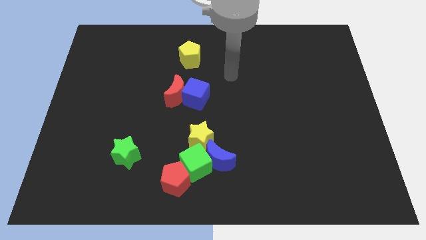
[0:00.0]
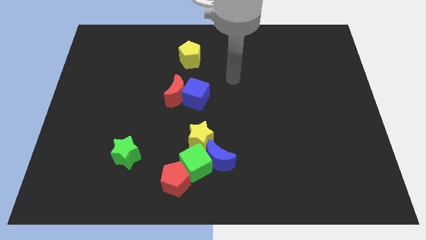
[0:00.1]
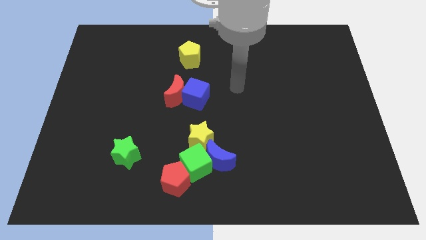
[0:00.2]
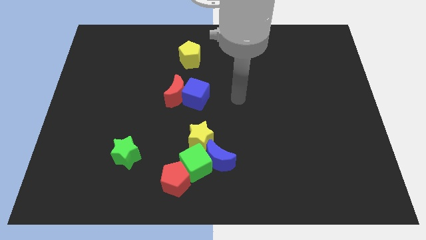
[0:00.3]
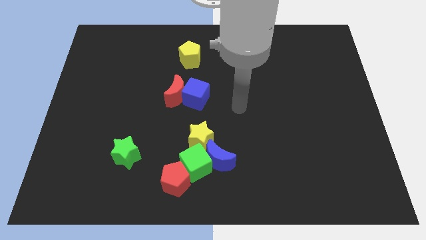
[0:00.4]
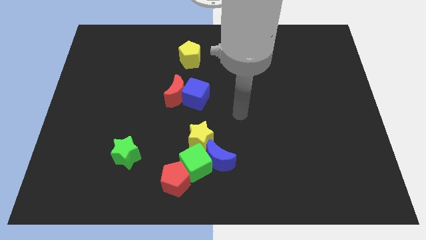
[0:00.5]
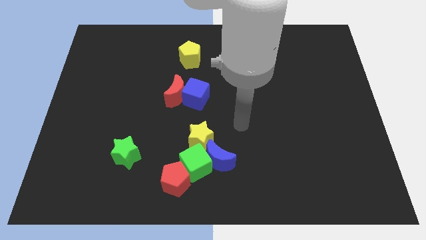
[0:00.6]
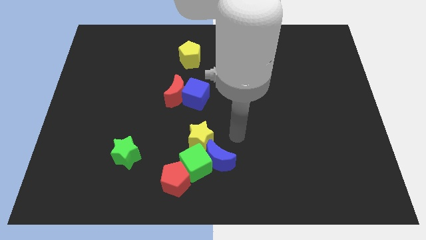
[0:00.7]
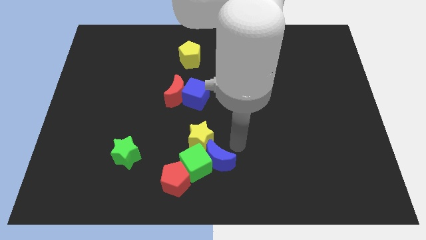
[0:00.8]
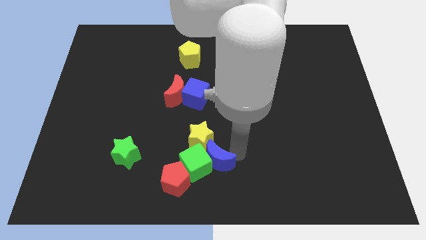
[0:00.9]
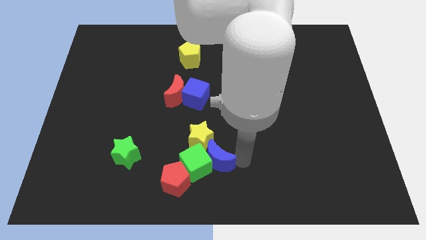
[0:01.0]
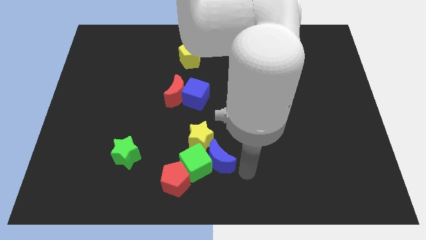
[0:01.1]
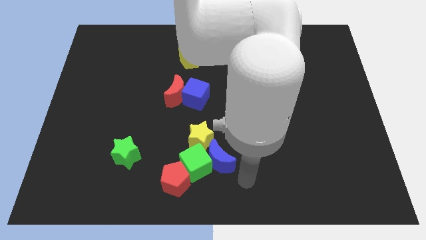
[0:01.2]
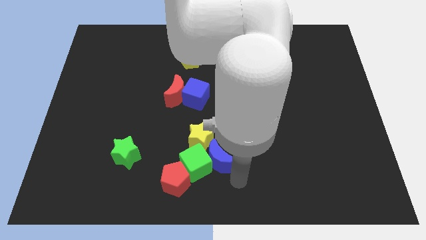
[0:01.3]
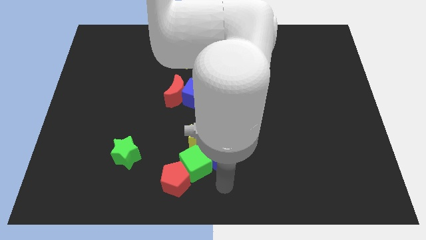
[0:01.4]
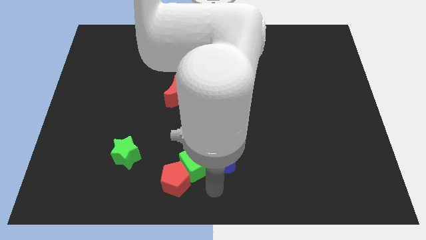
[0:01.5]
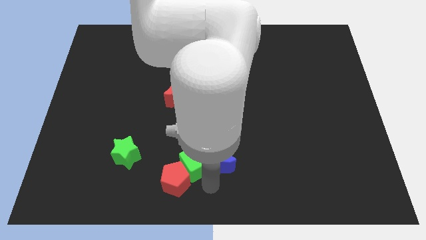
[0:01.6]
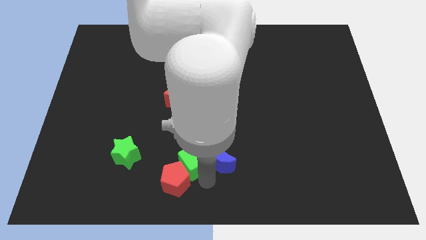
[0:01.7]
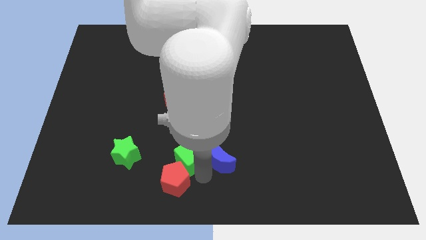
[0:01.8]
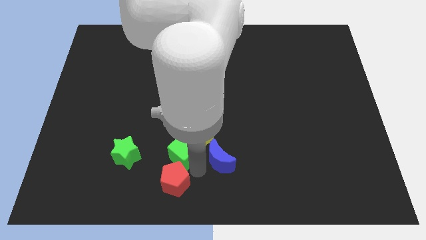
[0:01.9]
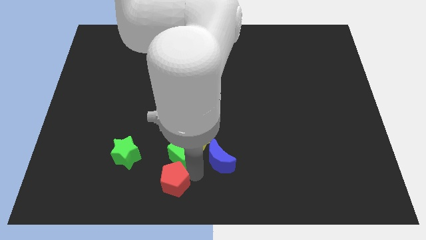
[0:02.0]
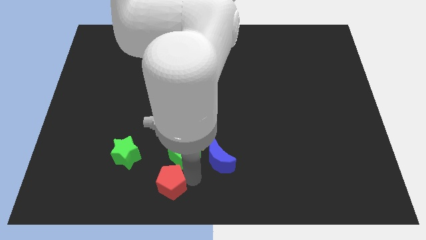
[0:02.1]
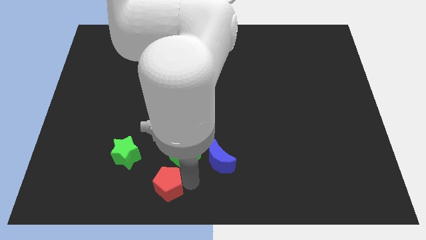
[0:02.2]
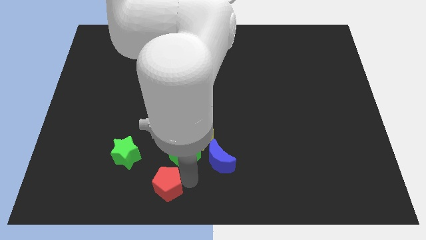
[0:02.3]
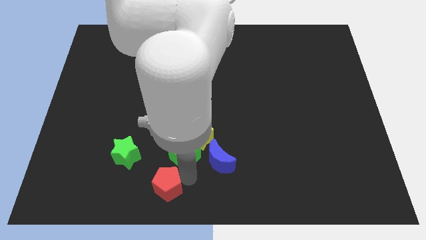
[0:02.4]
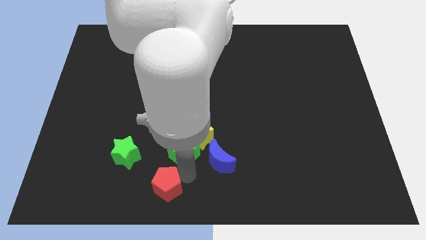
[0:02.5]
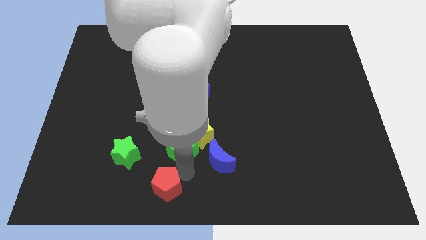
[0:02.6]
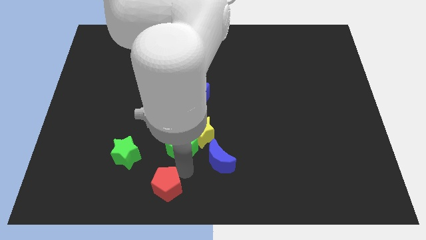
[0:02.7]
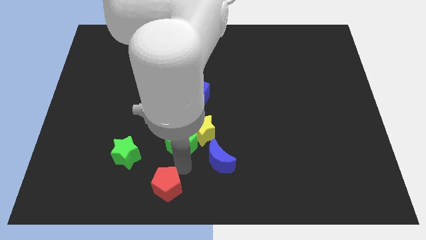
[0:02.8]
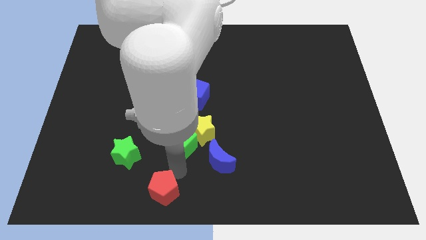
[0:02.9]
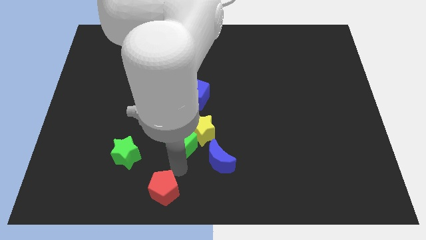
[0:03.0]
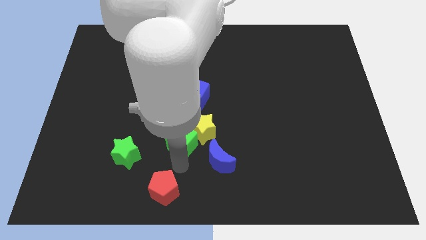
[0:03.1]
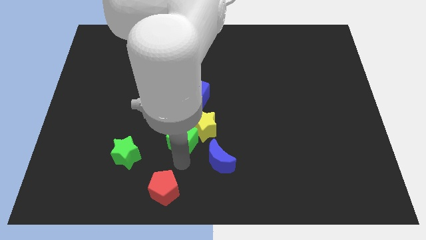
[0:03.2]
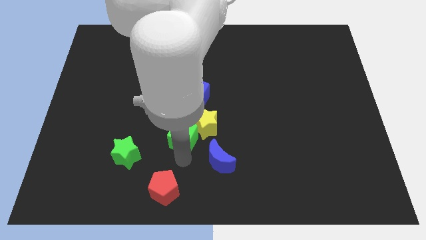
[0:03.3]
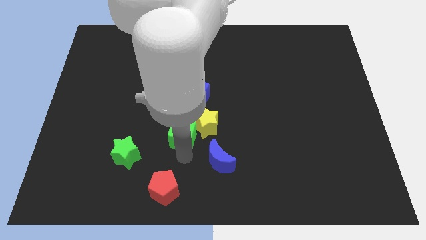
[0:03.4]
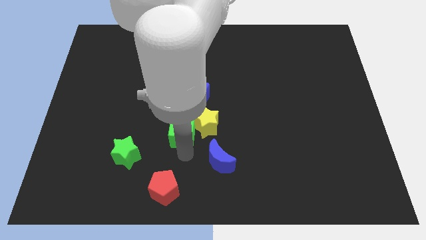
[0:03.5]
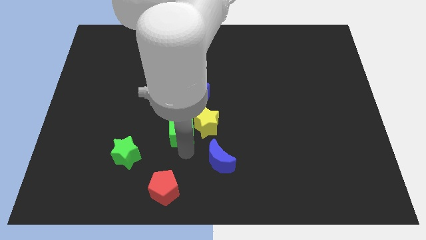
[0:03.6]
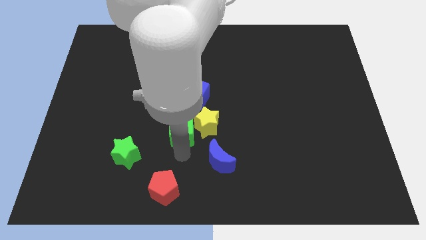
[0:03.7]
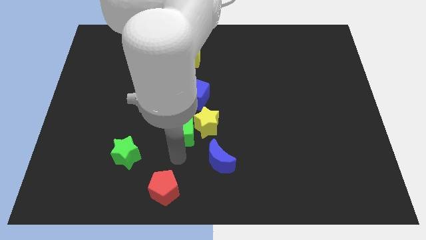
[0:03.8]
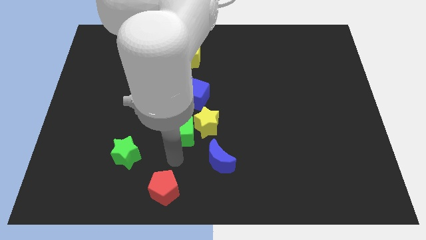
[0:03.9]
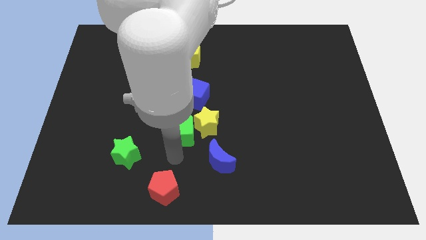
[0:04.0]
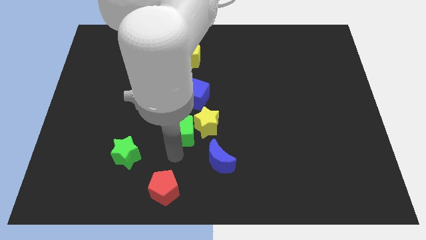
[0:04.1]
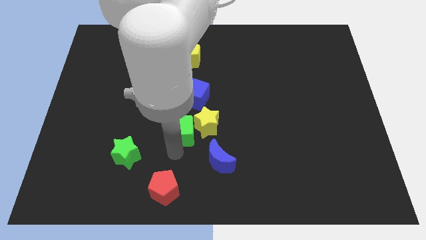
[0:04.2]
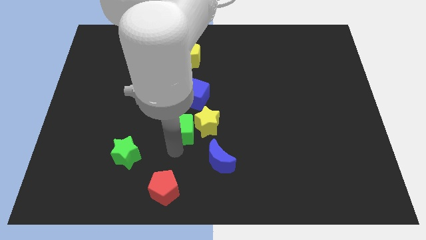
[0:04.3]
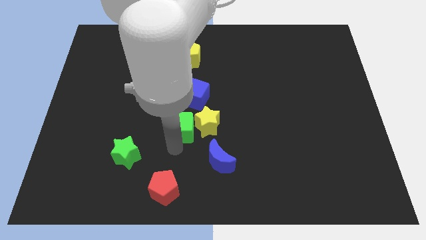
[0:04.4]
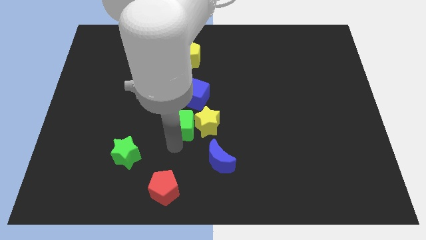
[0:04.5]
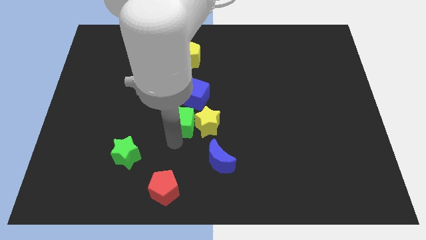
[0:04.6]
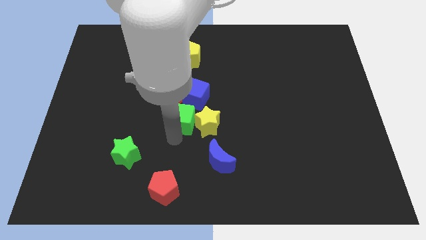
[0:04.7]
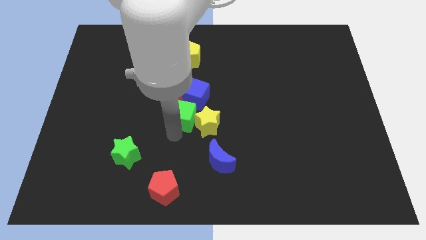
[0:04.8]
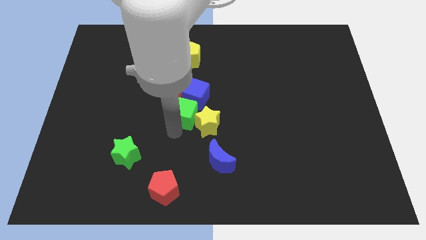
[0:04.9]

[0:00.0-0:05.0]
put the green cube close to the blue cube
